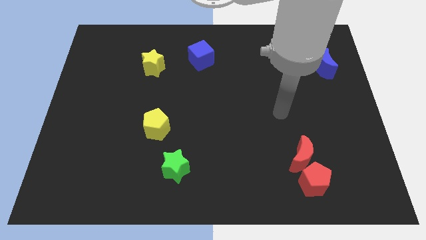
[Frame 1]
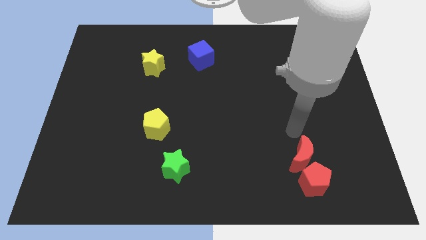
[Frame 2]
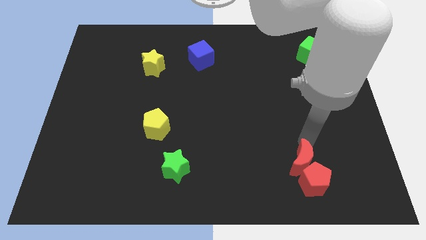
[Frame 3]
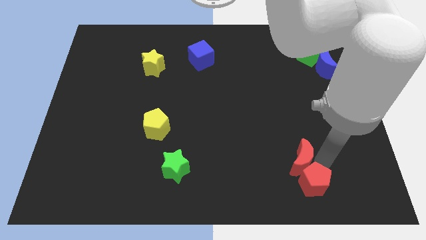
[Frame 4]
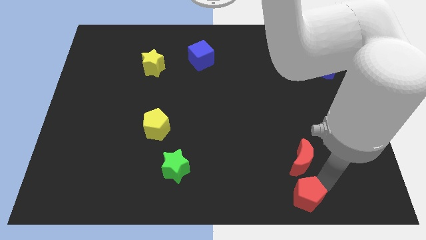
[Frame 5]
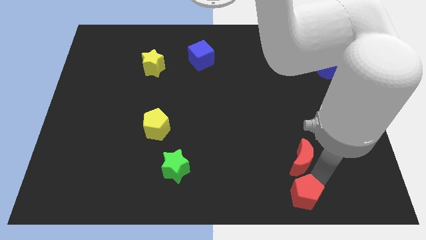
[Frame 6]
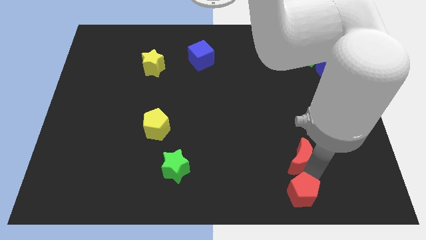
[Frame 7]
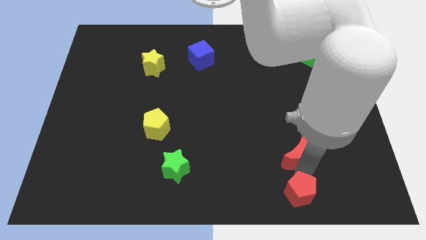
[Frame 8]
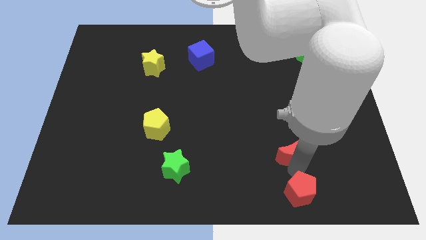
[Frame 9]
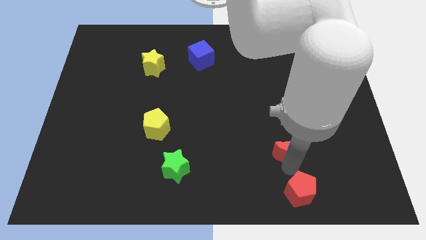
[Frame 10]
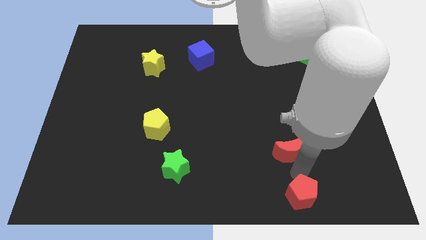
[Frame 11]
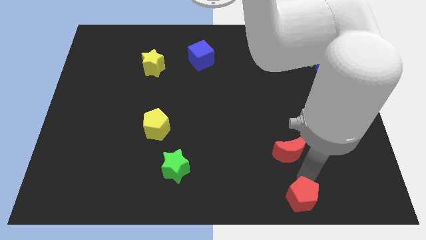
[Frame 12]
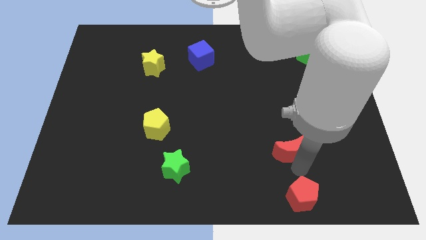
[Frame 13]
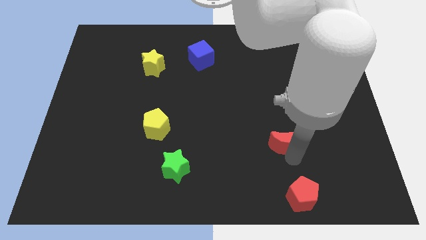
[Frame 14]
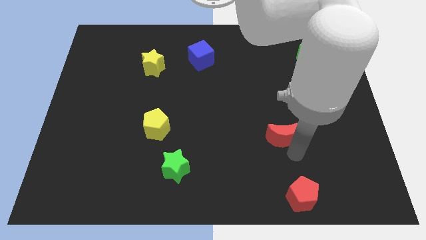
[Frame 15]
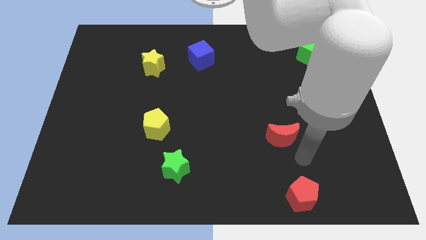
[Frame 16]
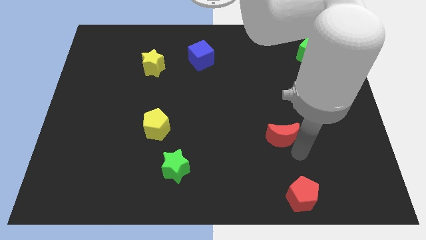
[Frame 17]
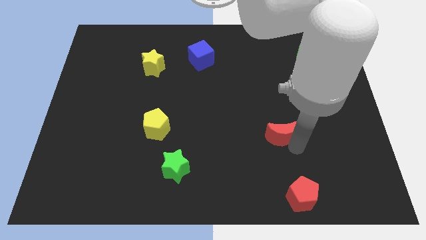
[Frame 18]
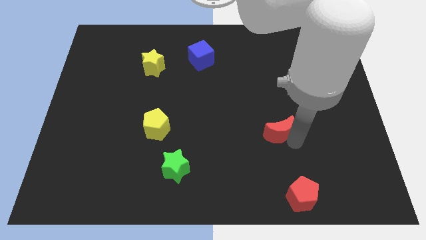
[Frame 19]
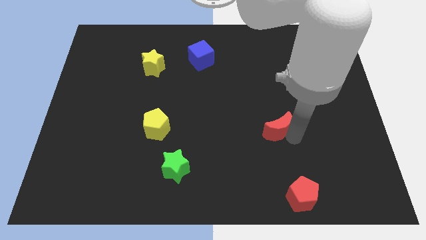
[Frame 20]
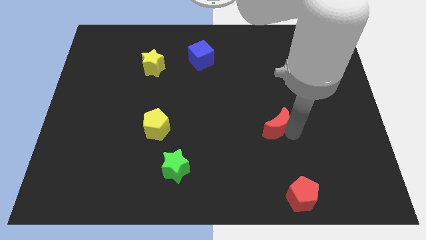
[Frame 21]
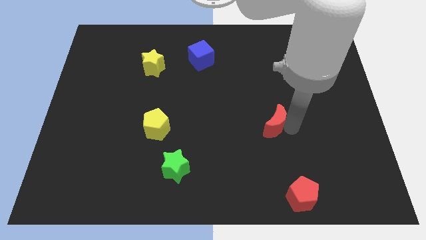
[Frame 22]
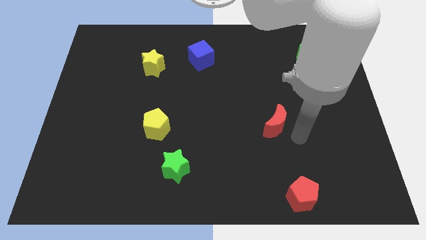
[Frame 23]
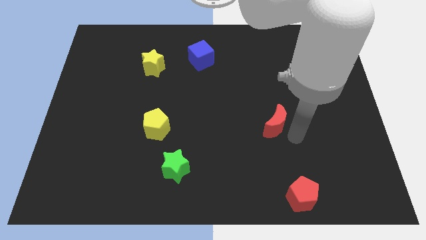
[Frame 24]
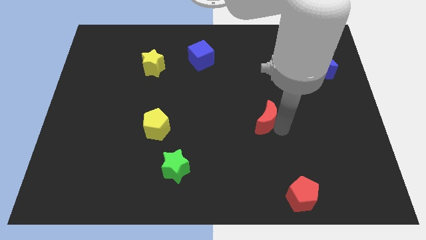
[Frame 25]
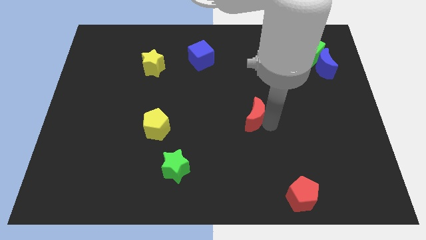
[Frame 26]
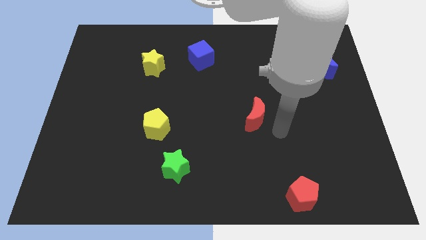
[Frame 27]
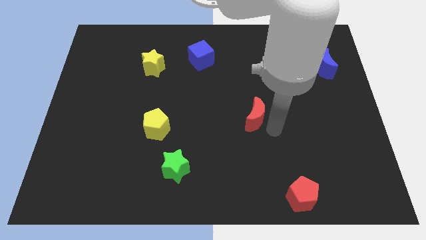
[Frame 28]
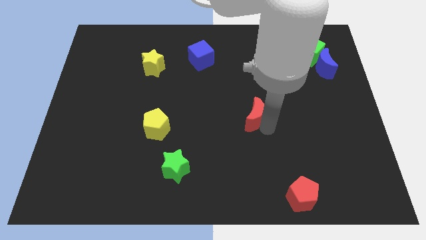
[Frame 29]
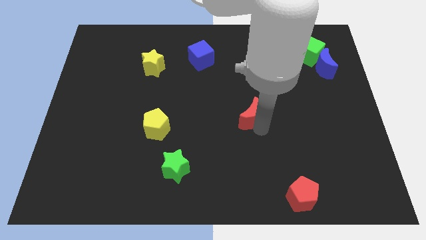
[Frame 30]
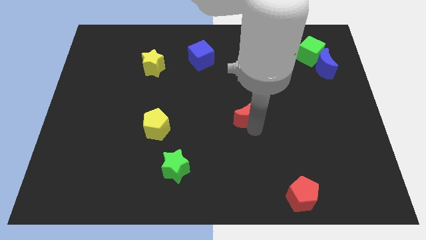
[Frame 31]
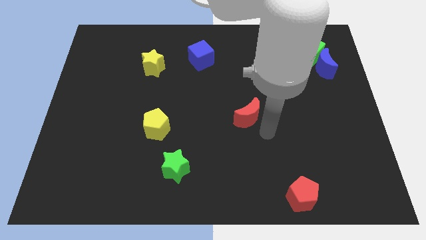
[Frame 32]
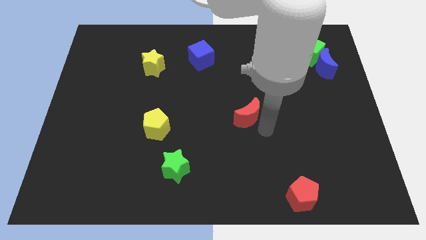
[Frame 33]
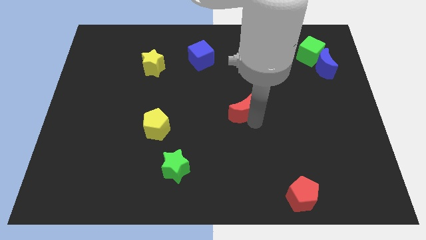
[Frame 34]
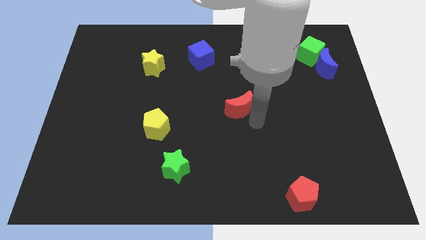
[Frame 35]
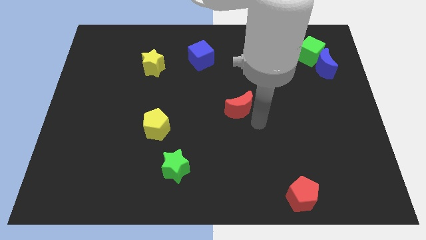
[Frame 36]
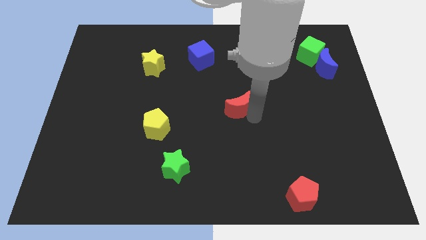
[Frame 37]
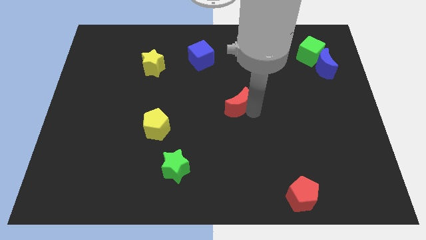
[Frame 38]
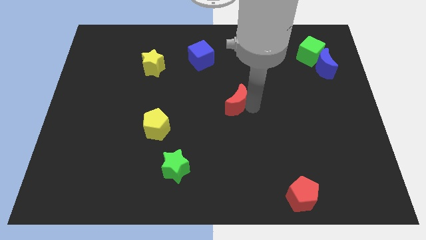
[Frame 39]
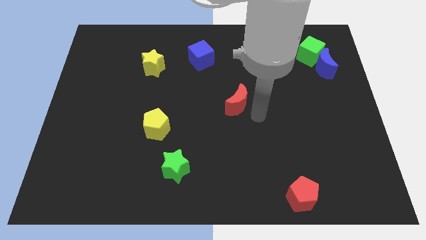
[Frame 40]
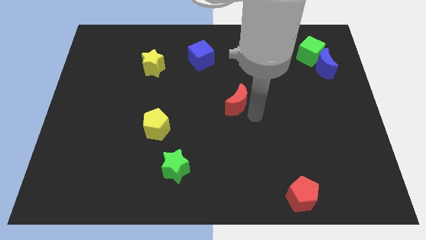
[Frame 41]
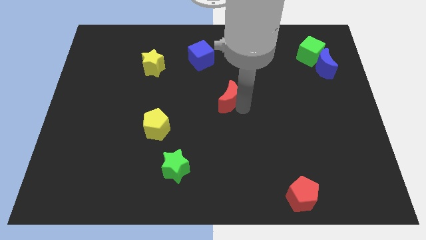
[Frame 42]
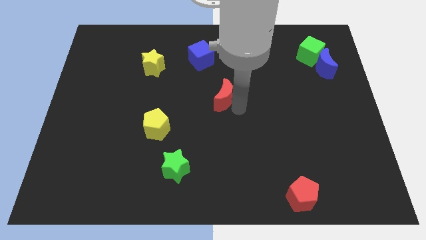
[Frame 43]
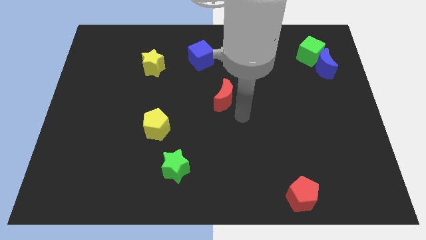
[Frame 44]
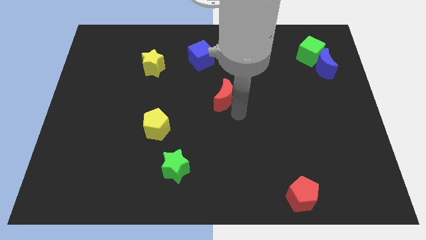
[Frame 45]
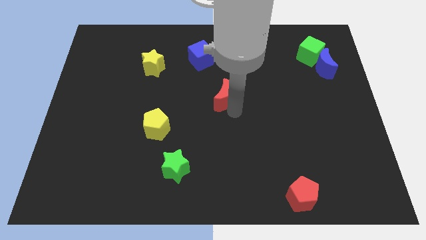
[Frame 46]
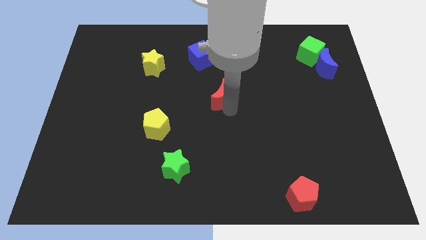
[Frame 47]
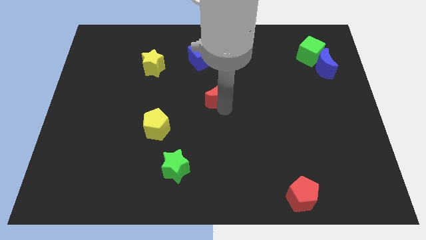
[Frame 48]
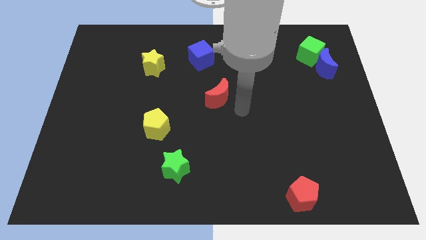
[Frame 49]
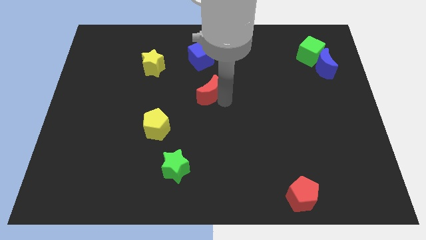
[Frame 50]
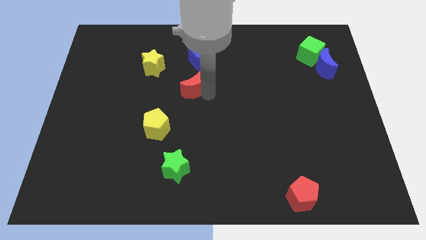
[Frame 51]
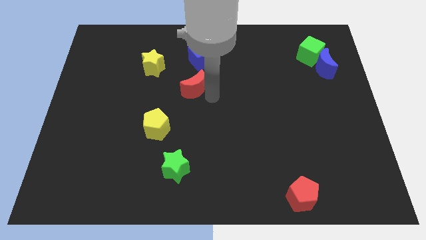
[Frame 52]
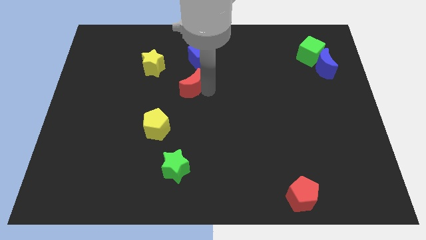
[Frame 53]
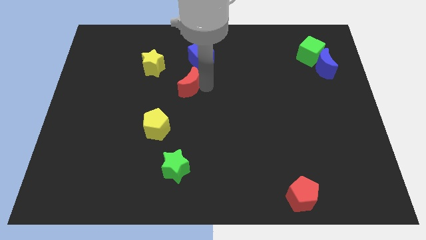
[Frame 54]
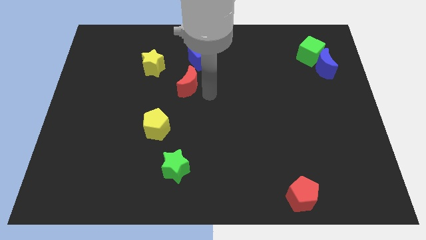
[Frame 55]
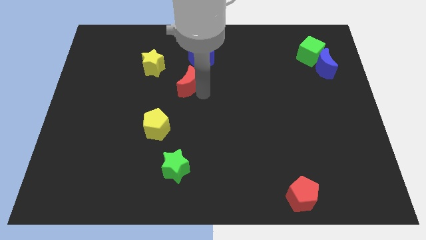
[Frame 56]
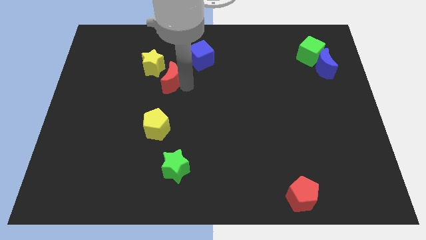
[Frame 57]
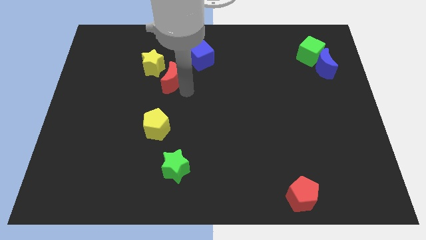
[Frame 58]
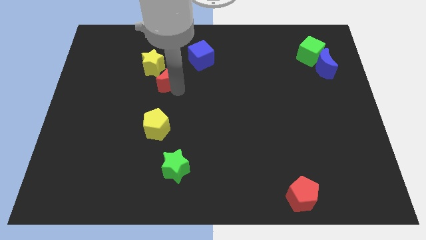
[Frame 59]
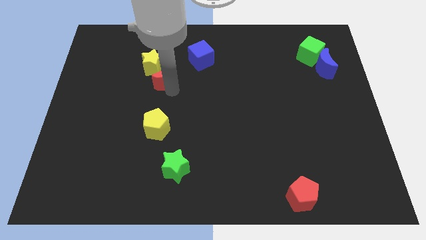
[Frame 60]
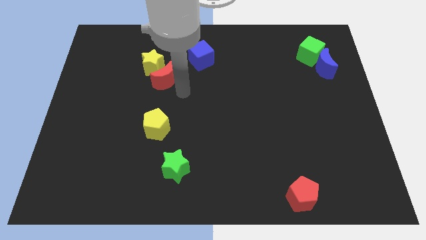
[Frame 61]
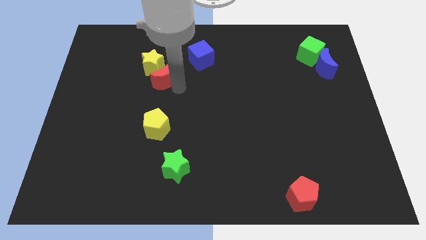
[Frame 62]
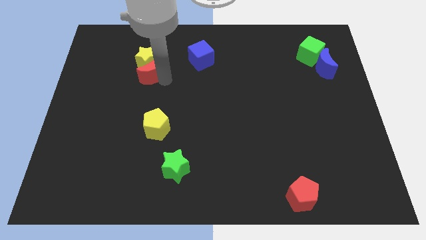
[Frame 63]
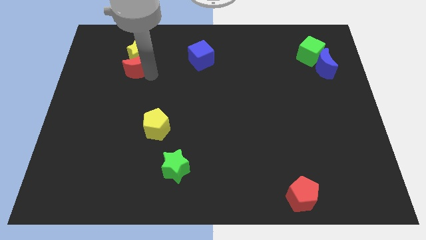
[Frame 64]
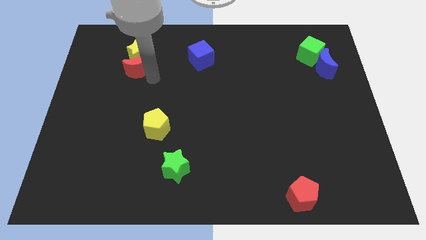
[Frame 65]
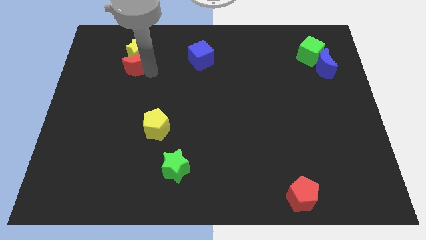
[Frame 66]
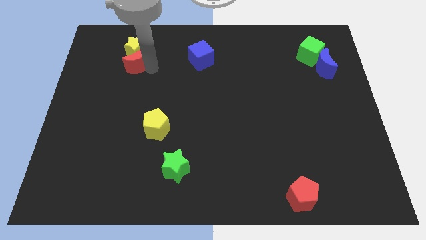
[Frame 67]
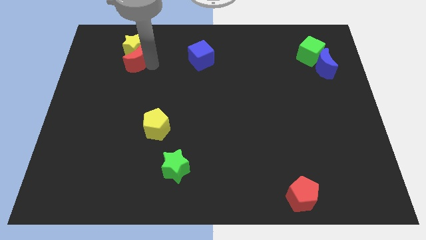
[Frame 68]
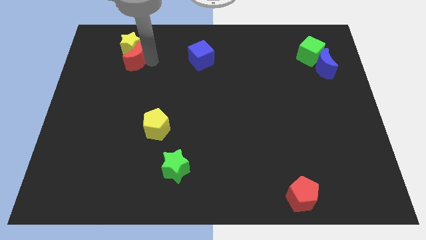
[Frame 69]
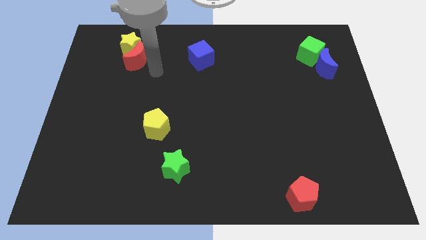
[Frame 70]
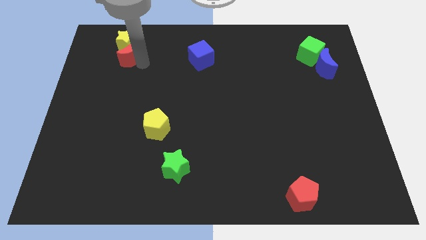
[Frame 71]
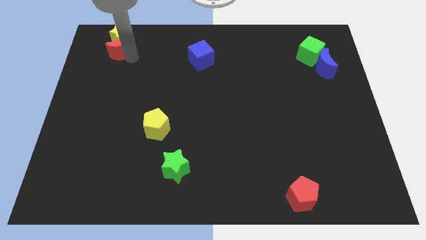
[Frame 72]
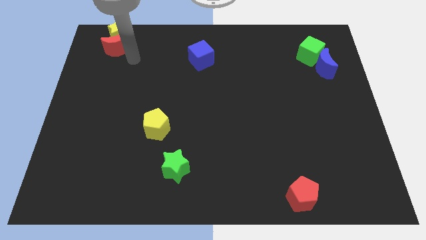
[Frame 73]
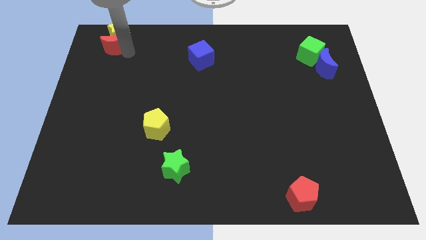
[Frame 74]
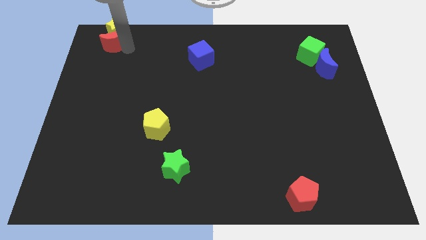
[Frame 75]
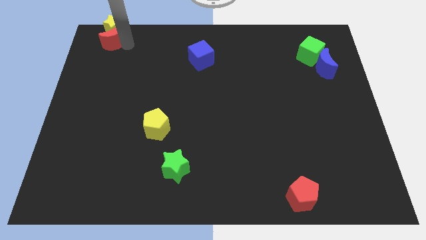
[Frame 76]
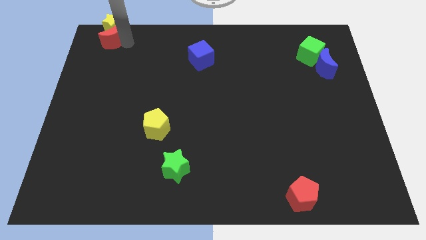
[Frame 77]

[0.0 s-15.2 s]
push the red moon to the top left of the board
